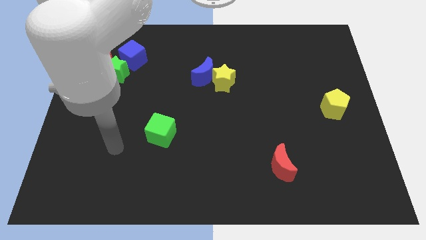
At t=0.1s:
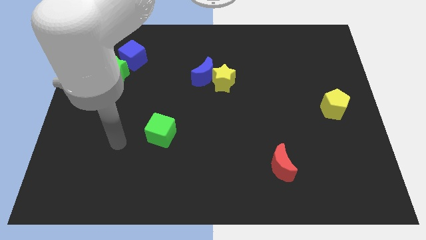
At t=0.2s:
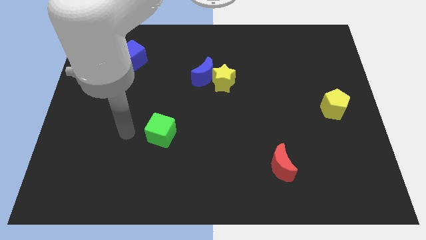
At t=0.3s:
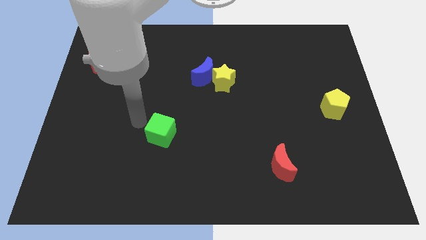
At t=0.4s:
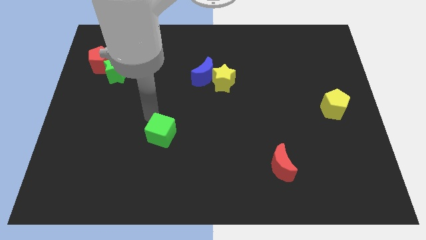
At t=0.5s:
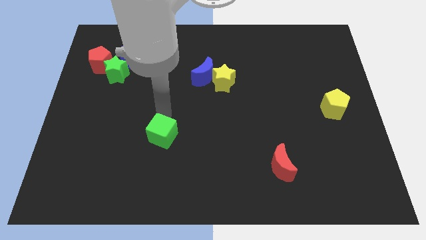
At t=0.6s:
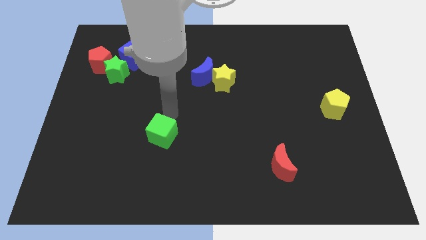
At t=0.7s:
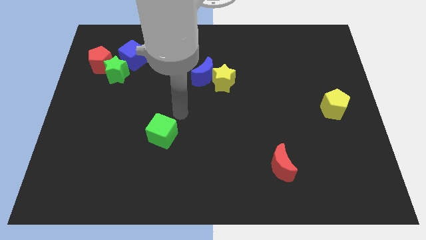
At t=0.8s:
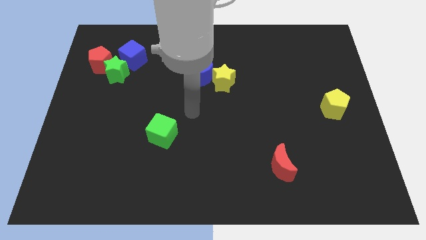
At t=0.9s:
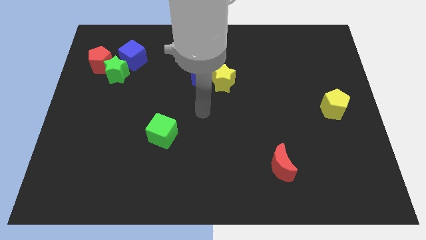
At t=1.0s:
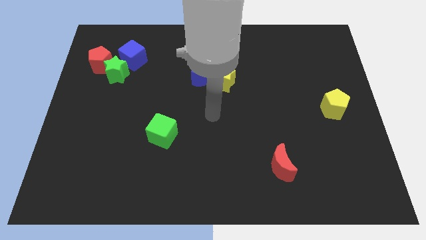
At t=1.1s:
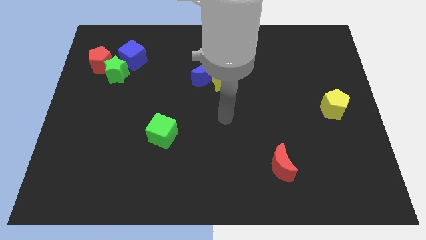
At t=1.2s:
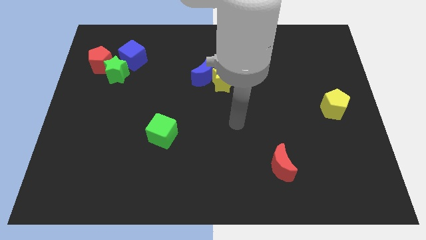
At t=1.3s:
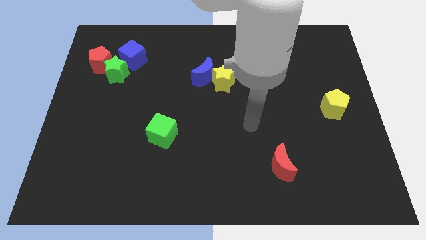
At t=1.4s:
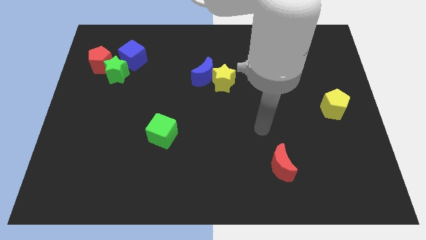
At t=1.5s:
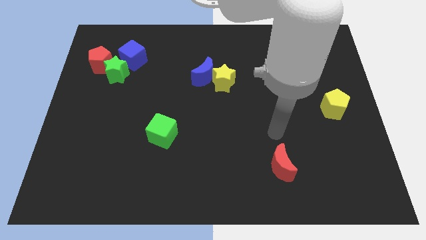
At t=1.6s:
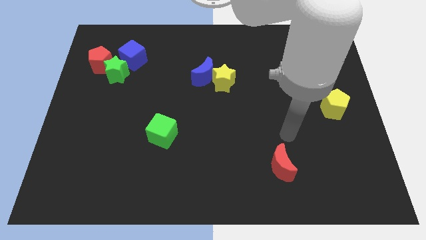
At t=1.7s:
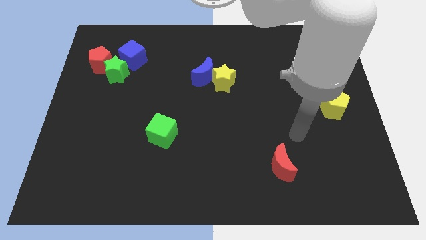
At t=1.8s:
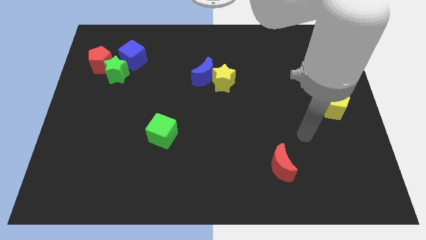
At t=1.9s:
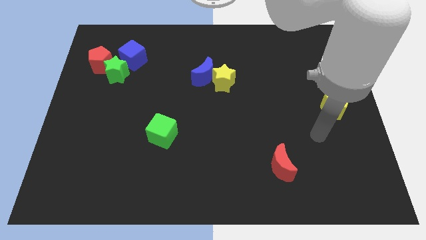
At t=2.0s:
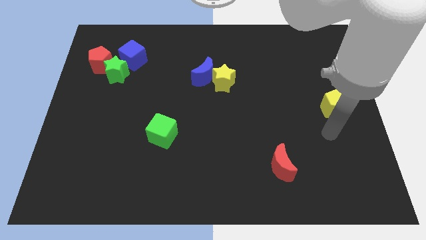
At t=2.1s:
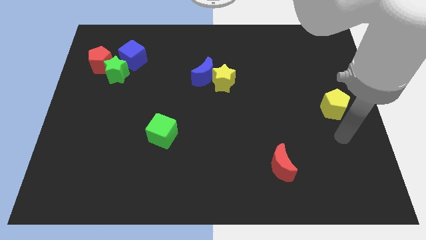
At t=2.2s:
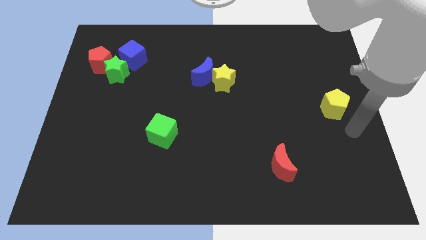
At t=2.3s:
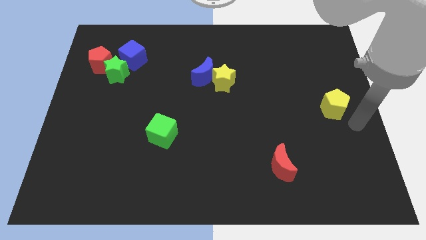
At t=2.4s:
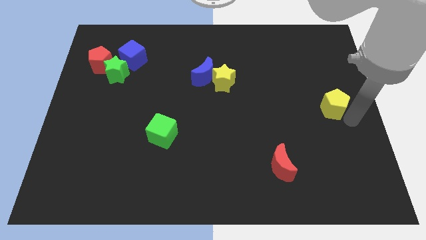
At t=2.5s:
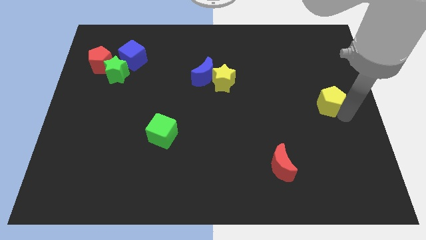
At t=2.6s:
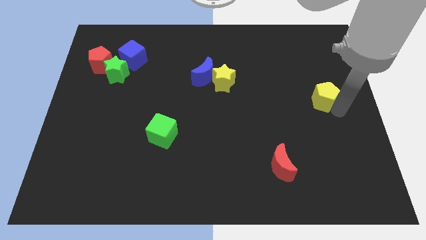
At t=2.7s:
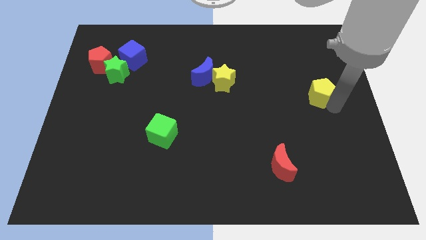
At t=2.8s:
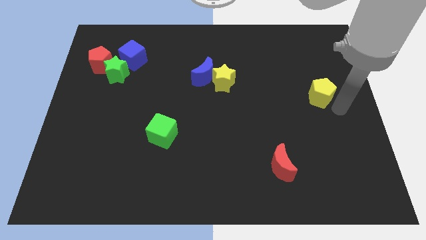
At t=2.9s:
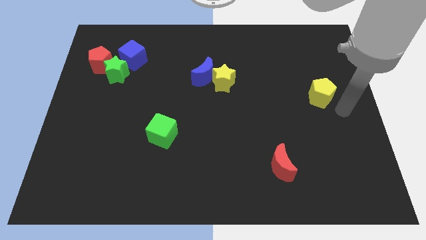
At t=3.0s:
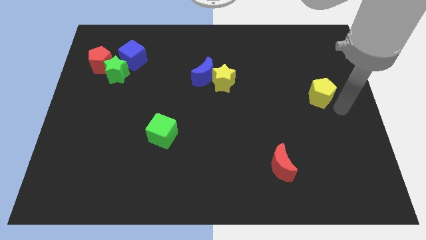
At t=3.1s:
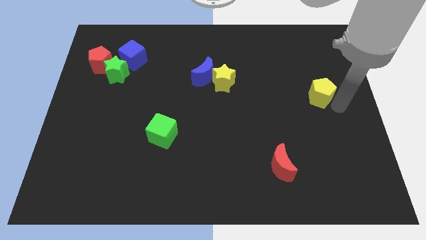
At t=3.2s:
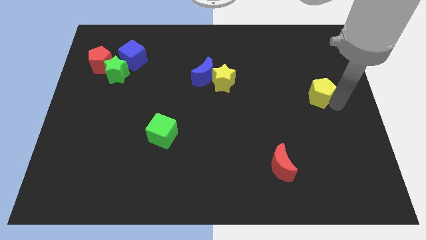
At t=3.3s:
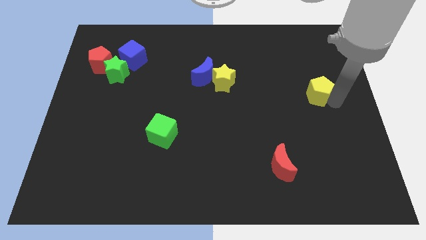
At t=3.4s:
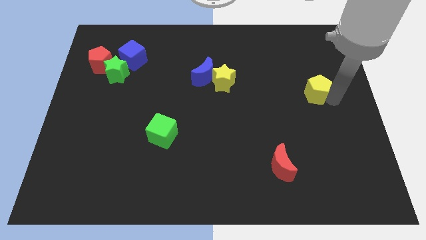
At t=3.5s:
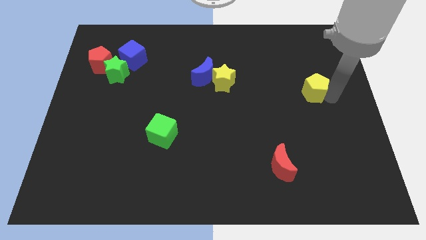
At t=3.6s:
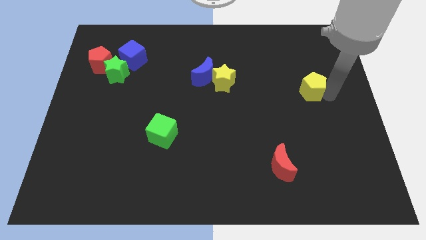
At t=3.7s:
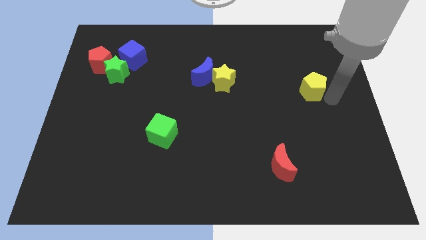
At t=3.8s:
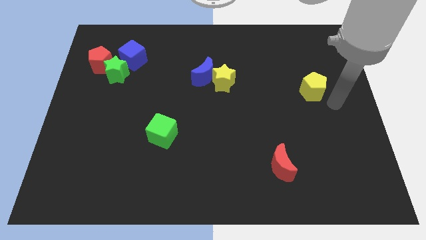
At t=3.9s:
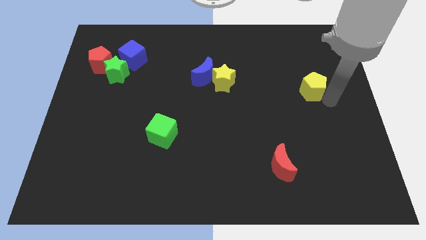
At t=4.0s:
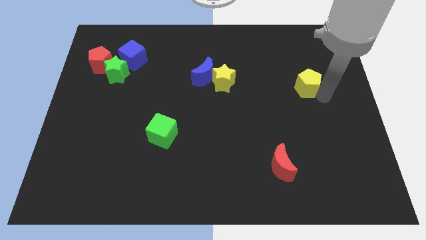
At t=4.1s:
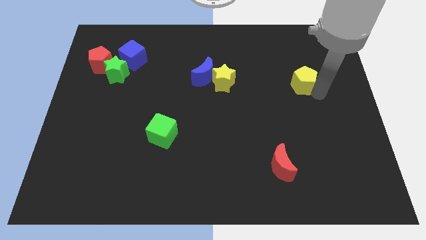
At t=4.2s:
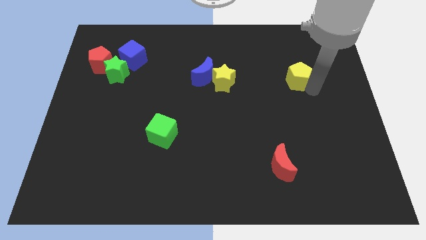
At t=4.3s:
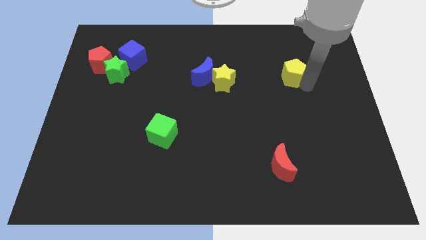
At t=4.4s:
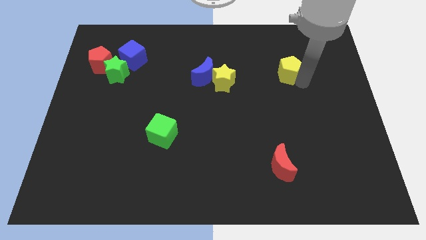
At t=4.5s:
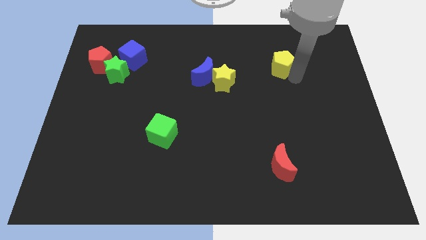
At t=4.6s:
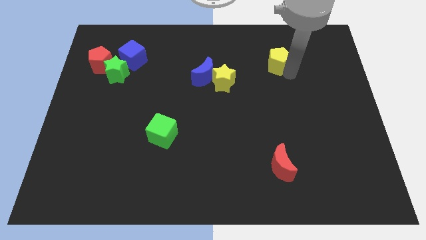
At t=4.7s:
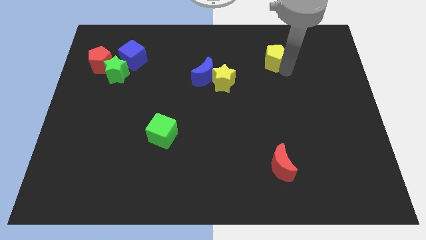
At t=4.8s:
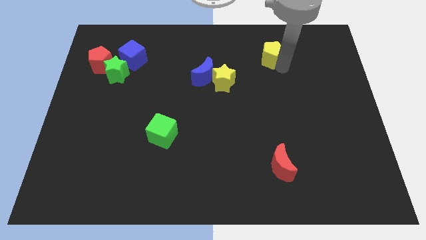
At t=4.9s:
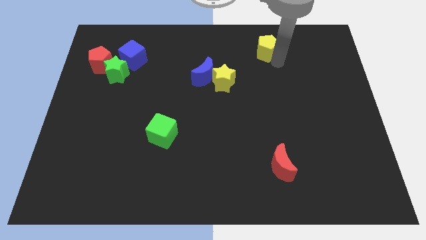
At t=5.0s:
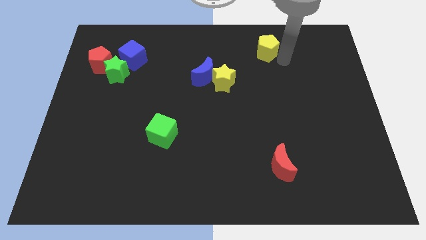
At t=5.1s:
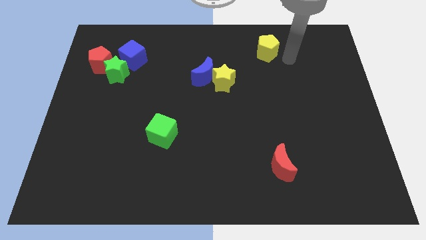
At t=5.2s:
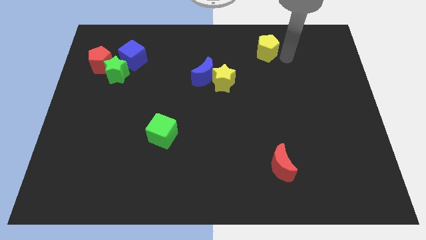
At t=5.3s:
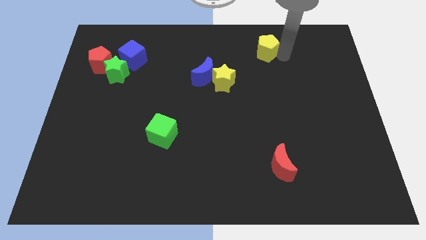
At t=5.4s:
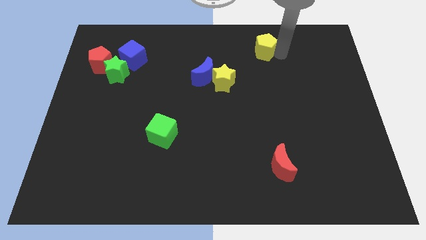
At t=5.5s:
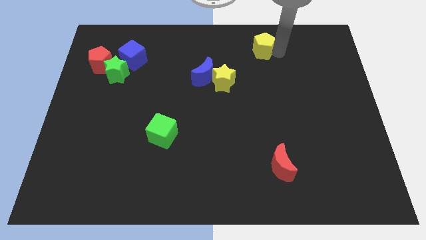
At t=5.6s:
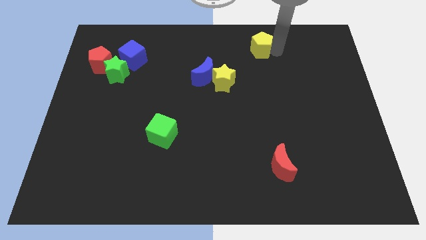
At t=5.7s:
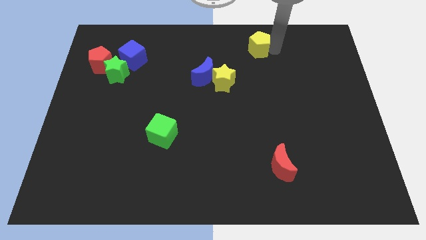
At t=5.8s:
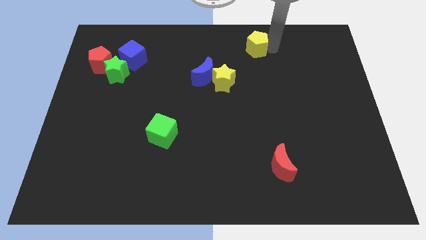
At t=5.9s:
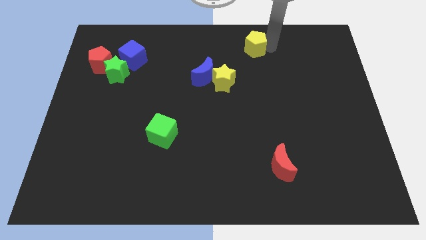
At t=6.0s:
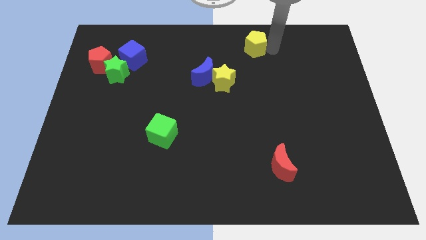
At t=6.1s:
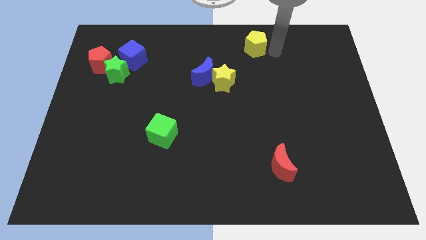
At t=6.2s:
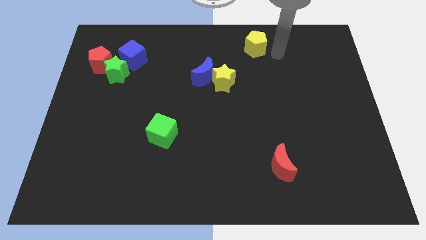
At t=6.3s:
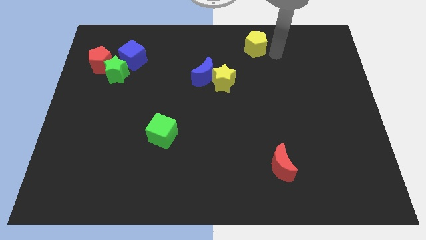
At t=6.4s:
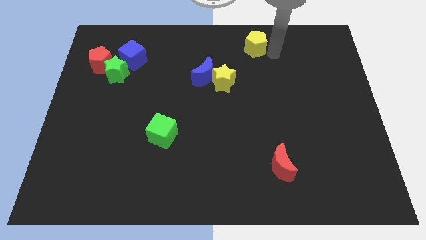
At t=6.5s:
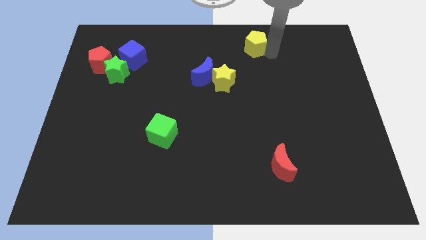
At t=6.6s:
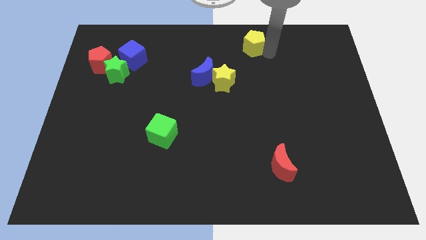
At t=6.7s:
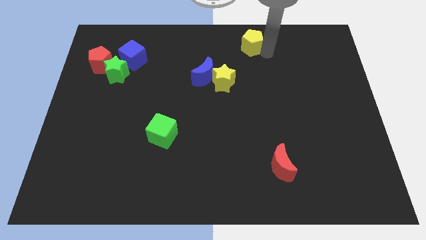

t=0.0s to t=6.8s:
push the yellow pentagon to the towards your base

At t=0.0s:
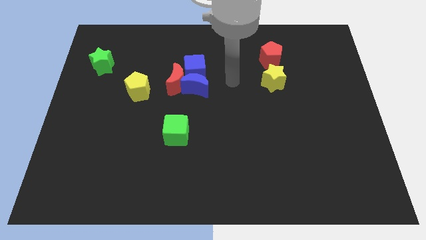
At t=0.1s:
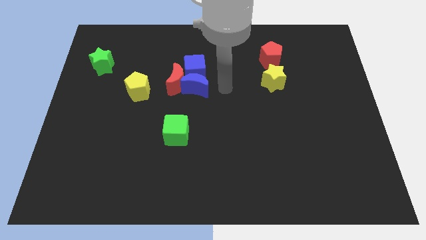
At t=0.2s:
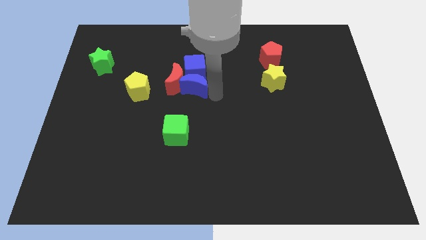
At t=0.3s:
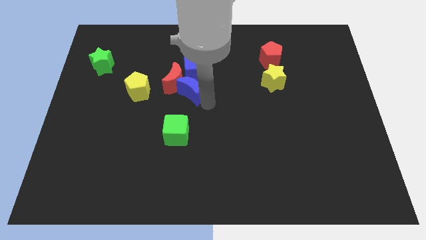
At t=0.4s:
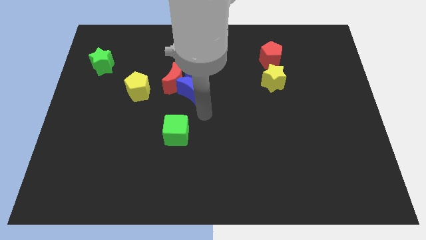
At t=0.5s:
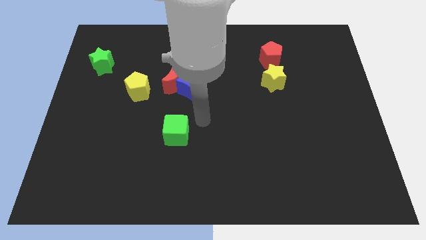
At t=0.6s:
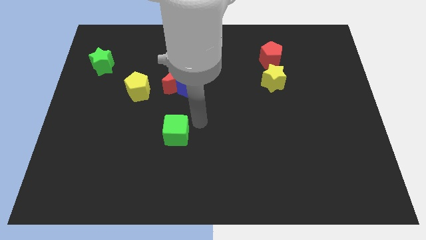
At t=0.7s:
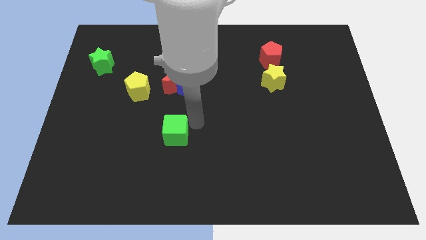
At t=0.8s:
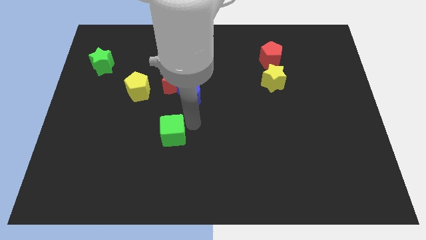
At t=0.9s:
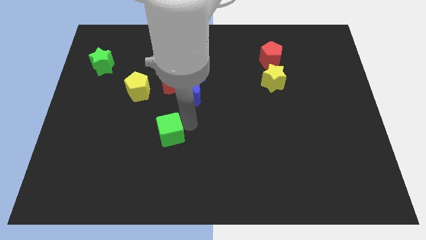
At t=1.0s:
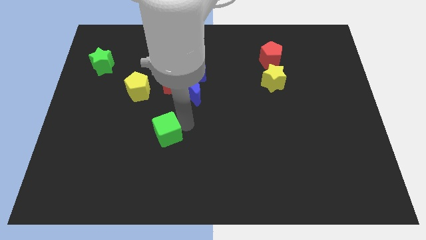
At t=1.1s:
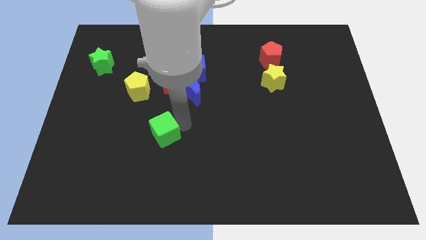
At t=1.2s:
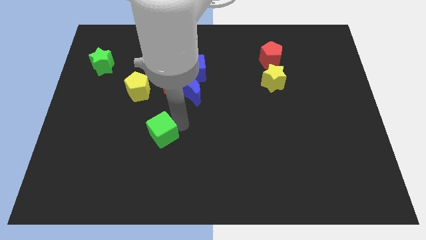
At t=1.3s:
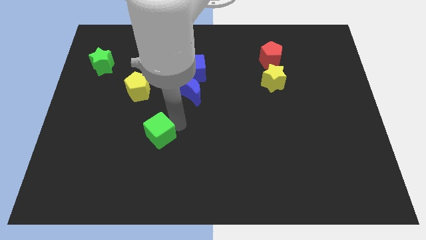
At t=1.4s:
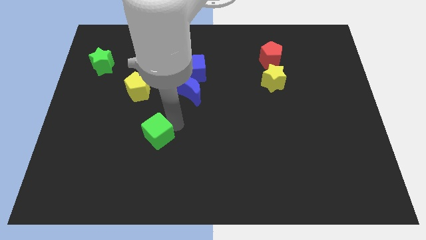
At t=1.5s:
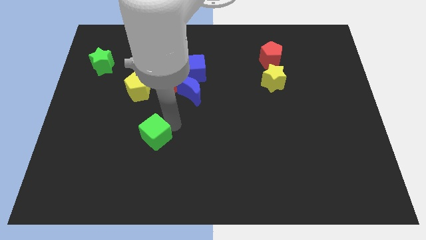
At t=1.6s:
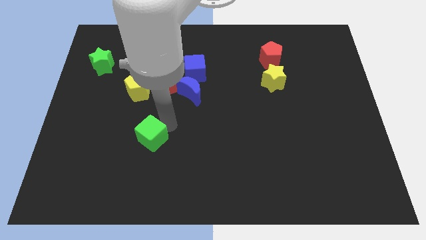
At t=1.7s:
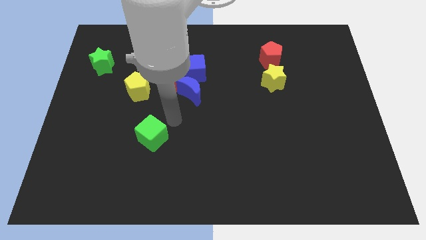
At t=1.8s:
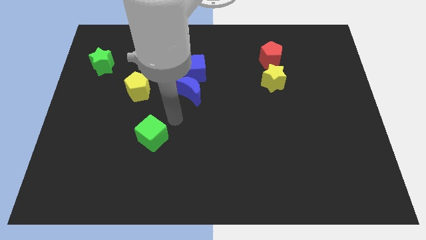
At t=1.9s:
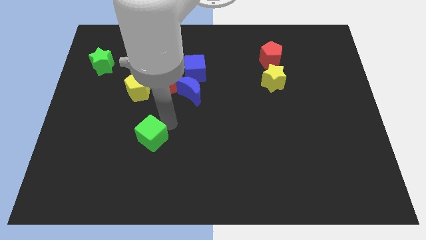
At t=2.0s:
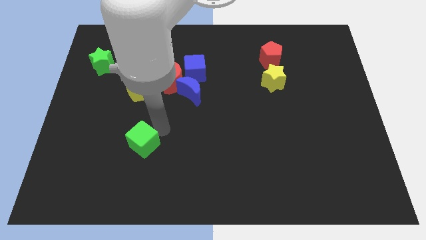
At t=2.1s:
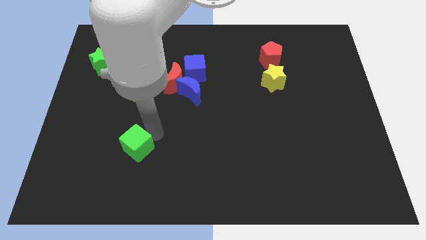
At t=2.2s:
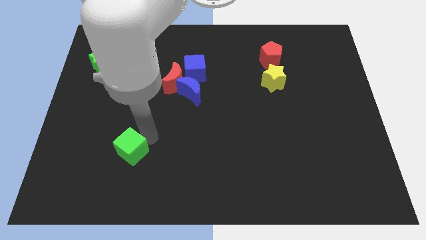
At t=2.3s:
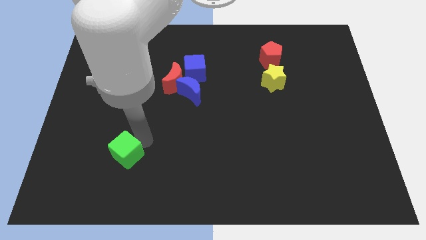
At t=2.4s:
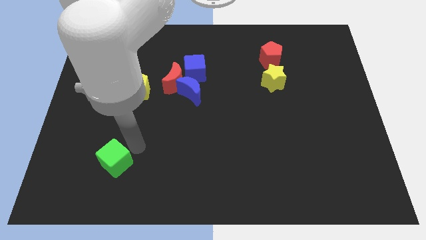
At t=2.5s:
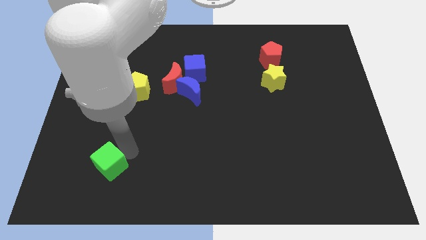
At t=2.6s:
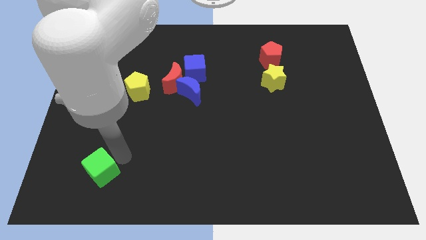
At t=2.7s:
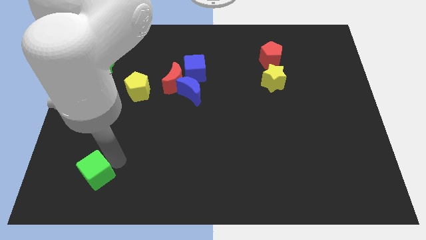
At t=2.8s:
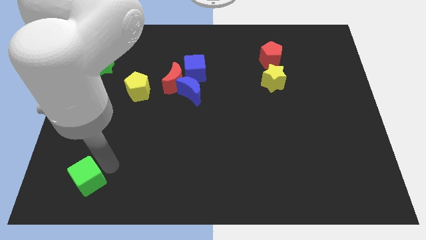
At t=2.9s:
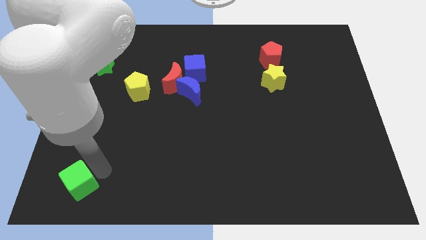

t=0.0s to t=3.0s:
push the green cube to the bottom left
